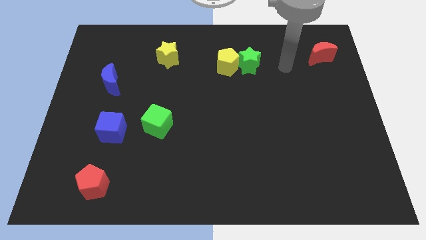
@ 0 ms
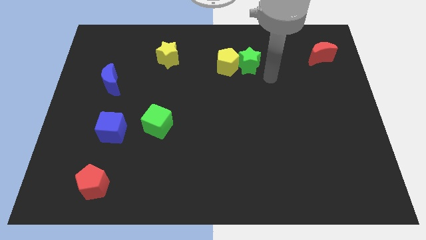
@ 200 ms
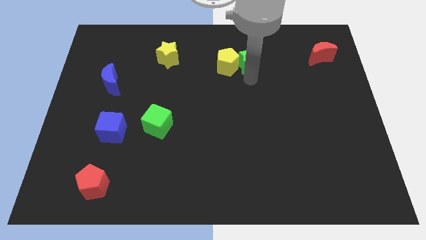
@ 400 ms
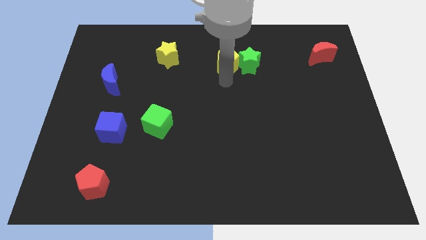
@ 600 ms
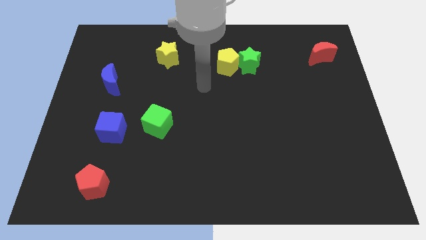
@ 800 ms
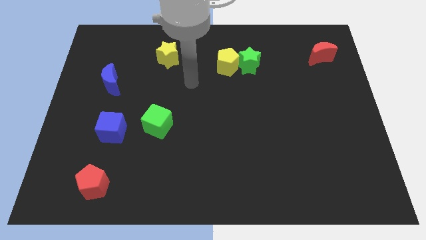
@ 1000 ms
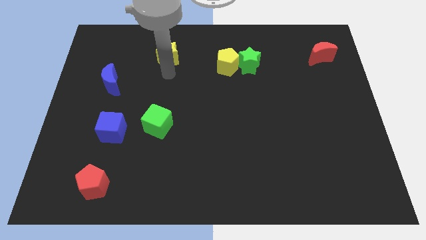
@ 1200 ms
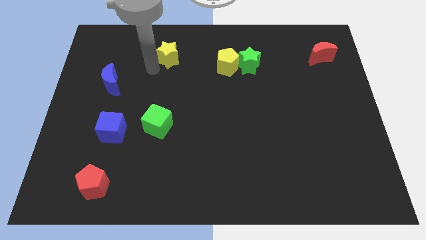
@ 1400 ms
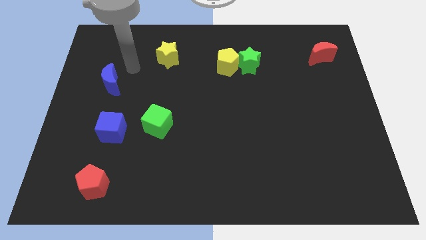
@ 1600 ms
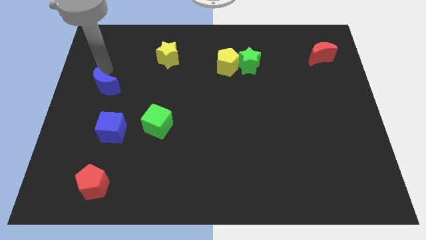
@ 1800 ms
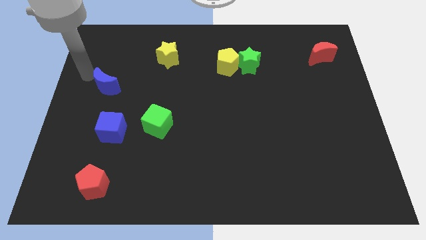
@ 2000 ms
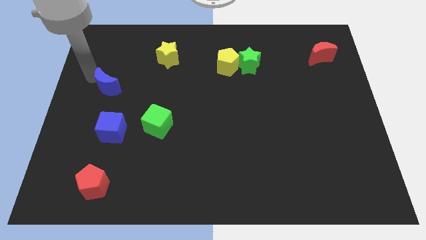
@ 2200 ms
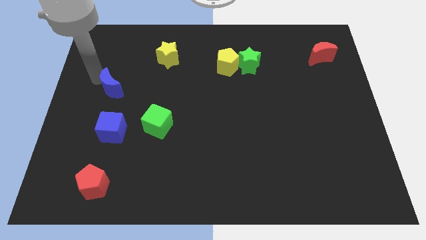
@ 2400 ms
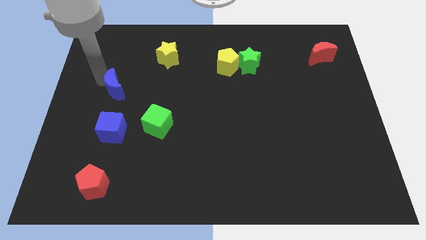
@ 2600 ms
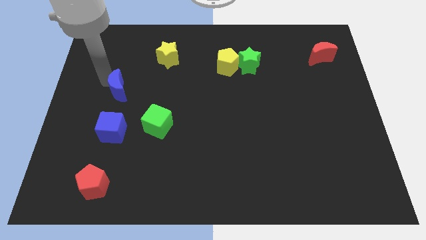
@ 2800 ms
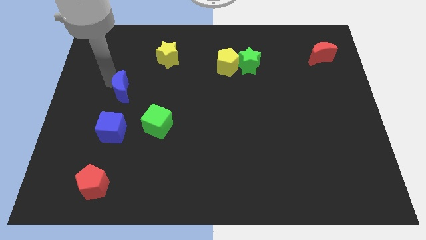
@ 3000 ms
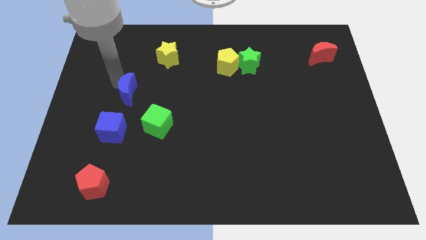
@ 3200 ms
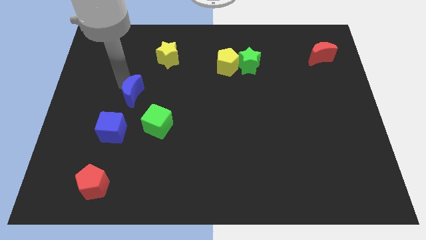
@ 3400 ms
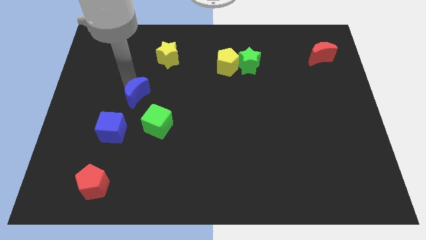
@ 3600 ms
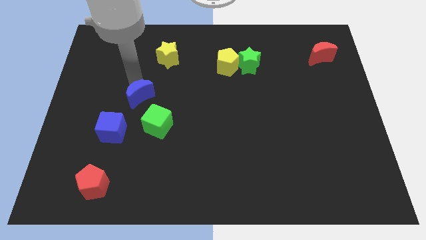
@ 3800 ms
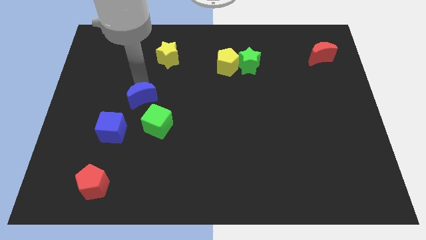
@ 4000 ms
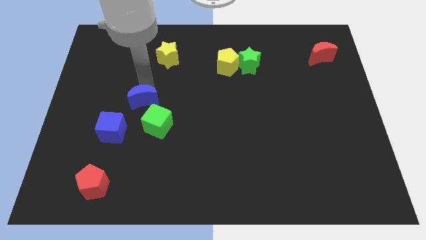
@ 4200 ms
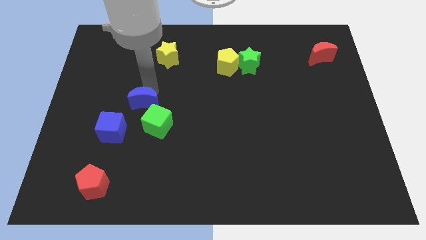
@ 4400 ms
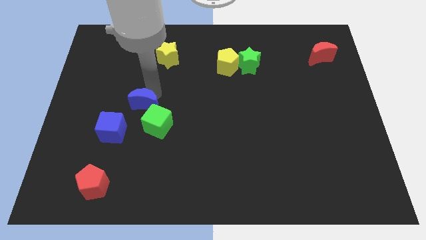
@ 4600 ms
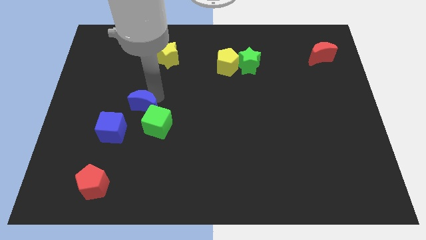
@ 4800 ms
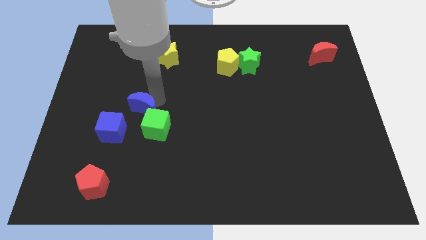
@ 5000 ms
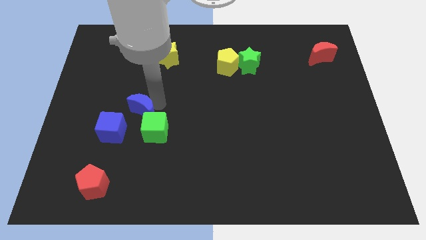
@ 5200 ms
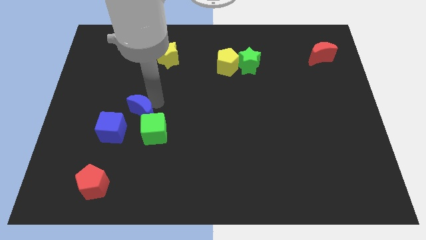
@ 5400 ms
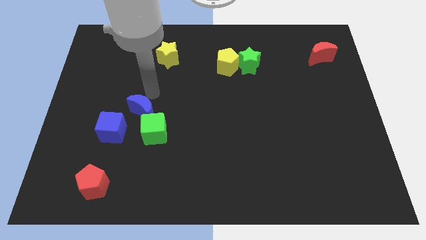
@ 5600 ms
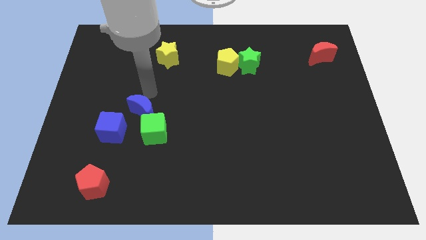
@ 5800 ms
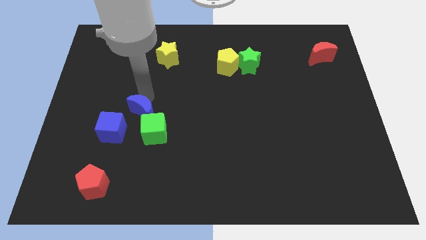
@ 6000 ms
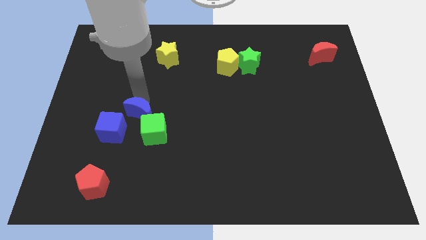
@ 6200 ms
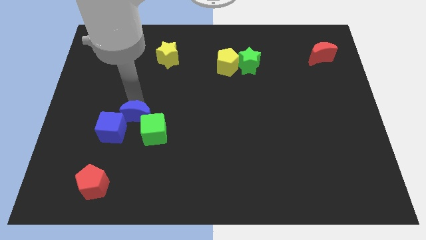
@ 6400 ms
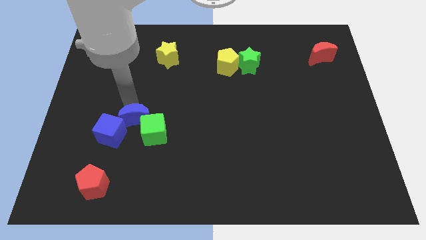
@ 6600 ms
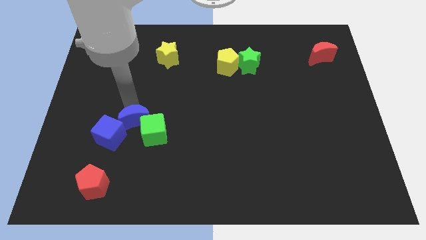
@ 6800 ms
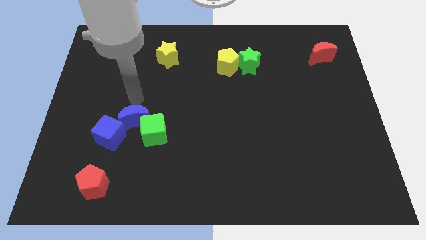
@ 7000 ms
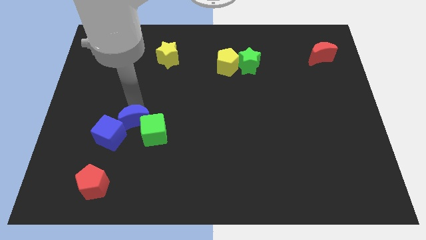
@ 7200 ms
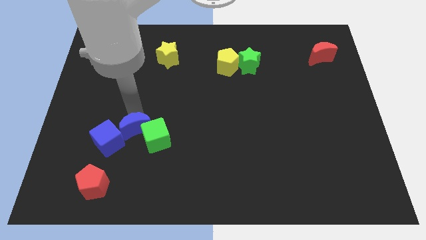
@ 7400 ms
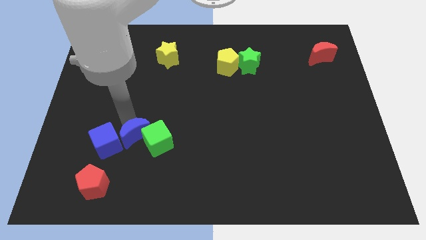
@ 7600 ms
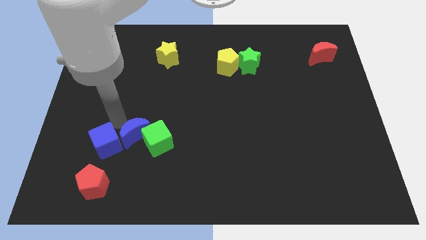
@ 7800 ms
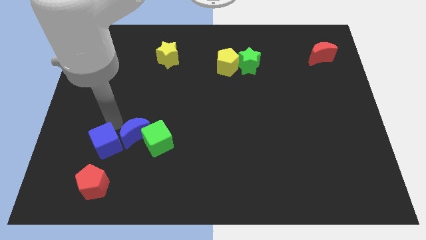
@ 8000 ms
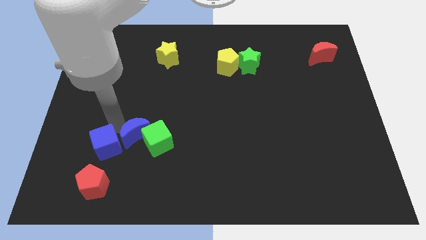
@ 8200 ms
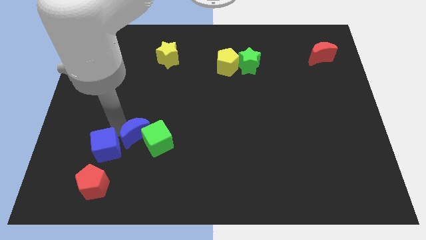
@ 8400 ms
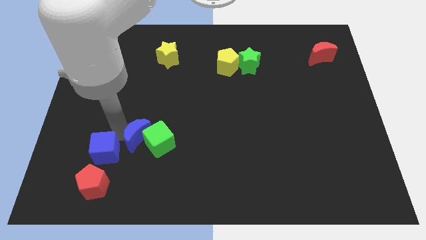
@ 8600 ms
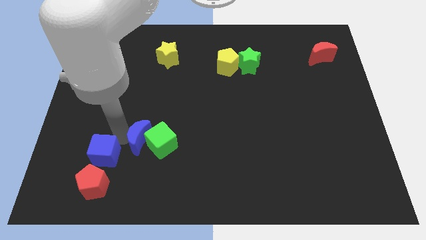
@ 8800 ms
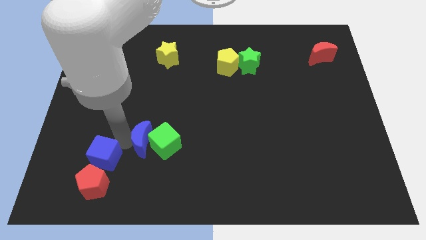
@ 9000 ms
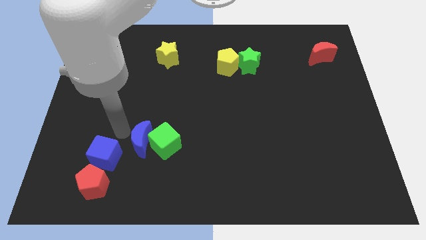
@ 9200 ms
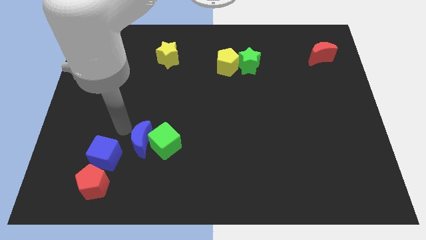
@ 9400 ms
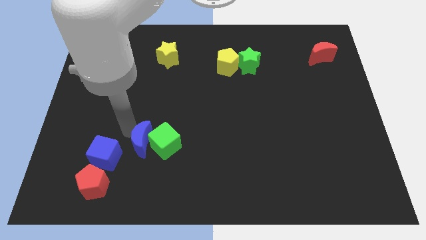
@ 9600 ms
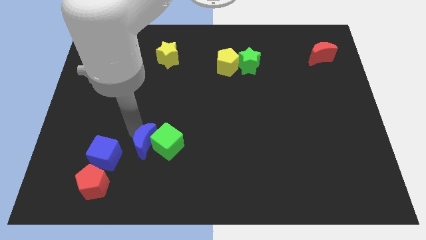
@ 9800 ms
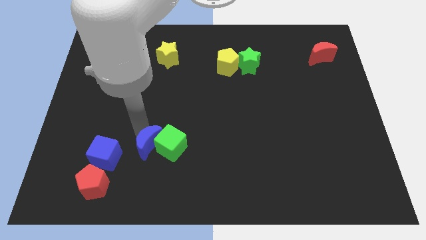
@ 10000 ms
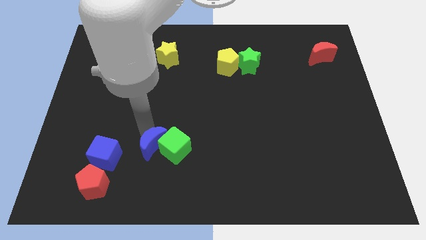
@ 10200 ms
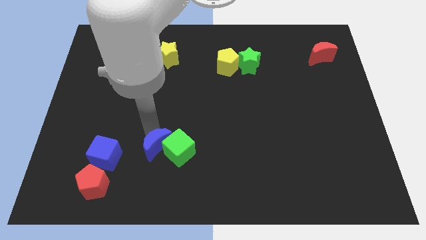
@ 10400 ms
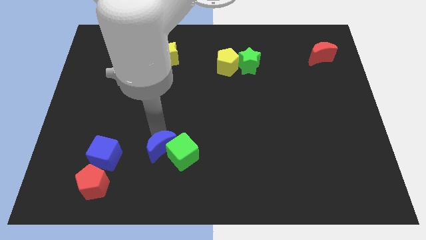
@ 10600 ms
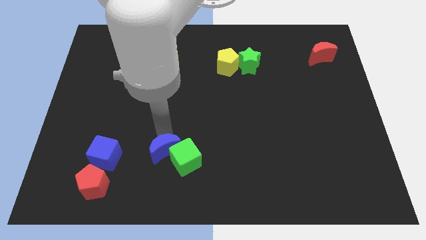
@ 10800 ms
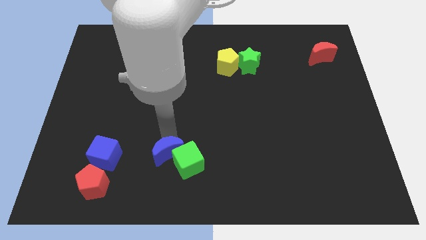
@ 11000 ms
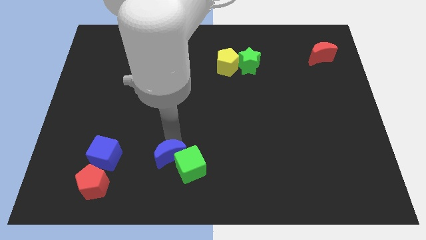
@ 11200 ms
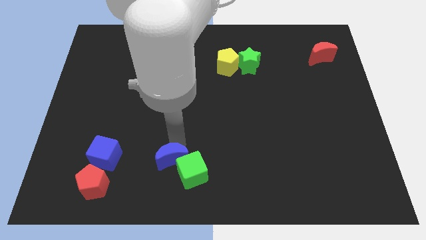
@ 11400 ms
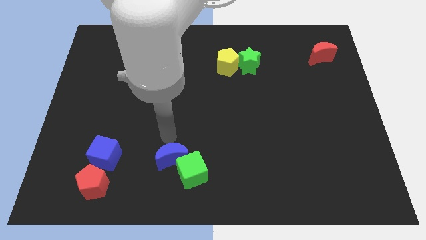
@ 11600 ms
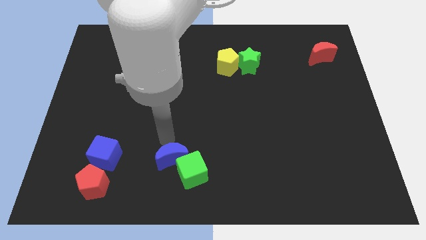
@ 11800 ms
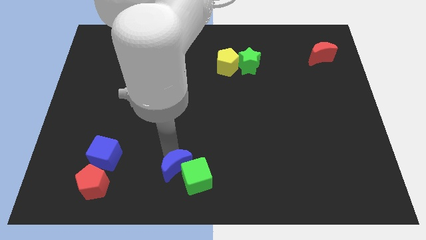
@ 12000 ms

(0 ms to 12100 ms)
slide the blue moon to the bottom

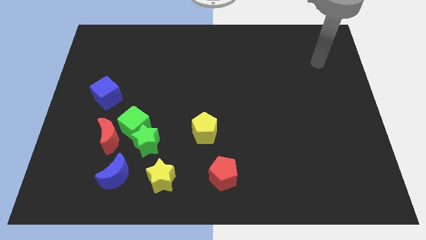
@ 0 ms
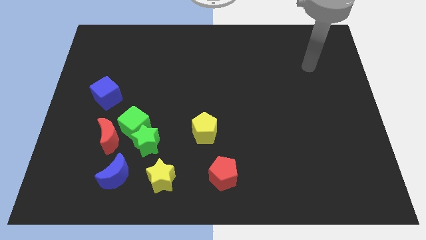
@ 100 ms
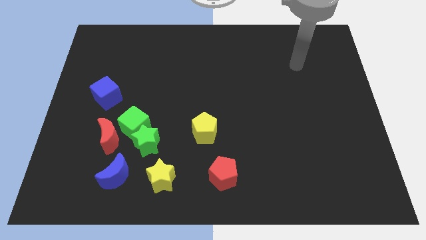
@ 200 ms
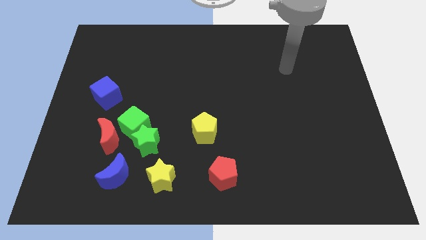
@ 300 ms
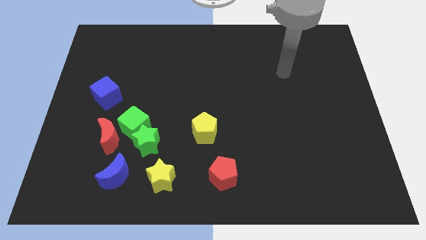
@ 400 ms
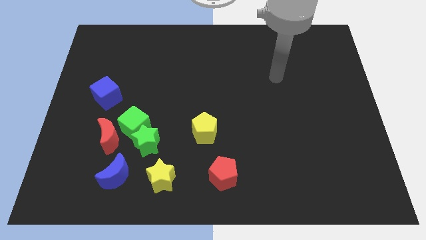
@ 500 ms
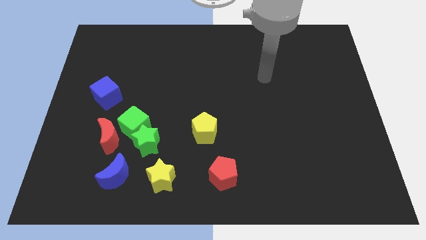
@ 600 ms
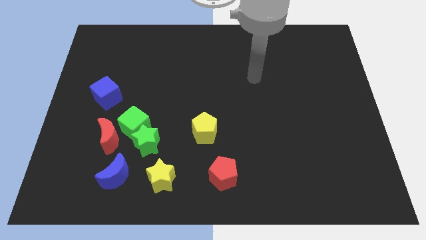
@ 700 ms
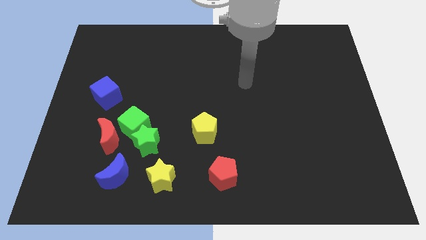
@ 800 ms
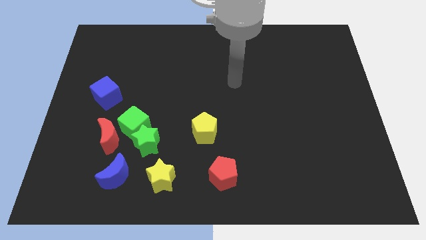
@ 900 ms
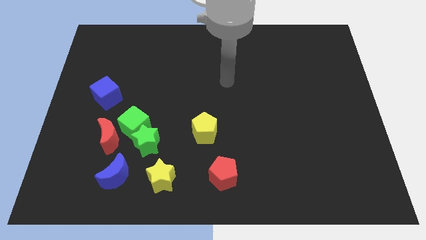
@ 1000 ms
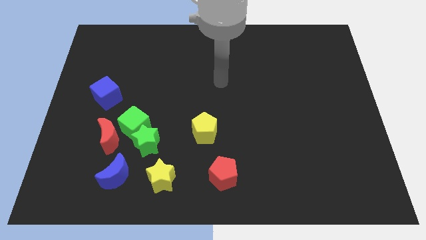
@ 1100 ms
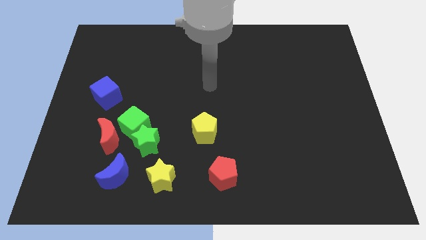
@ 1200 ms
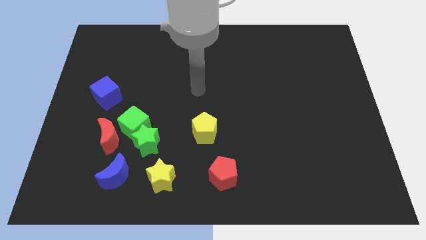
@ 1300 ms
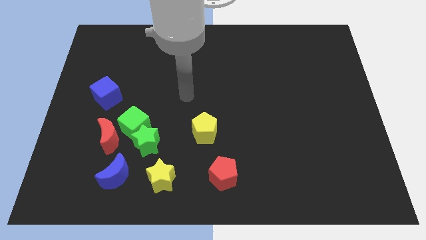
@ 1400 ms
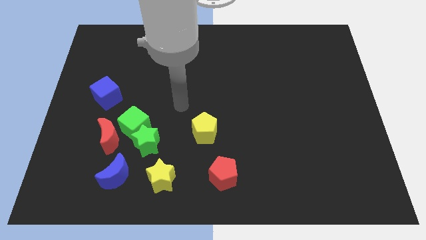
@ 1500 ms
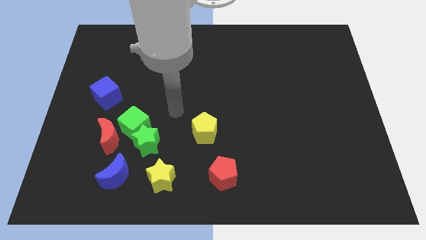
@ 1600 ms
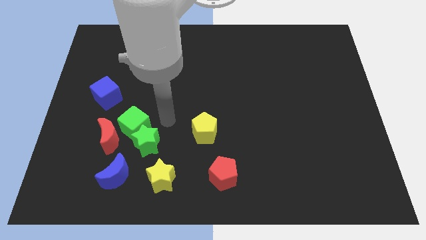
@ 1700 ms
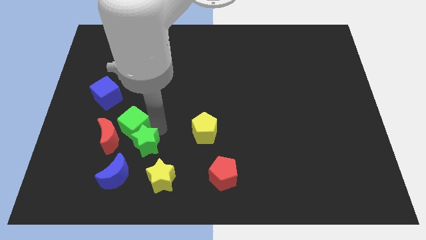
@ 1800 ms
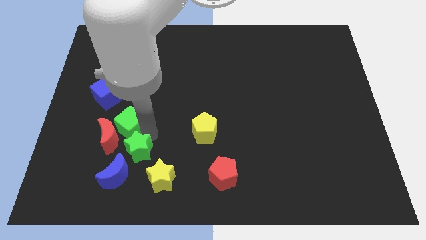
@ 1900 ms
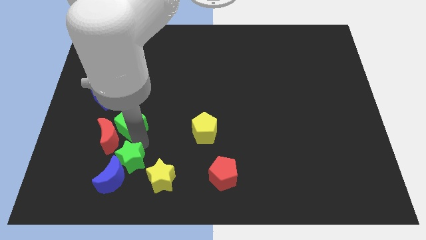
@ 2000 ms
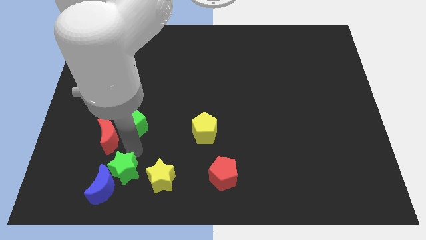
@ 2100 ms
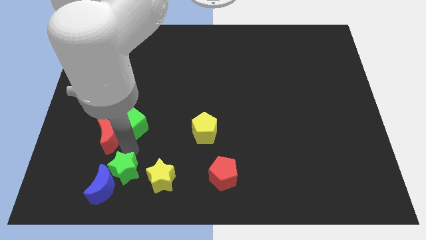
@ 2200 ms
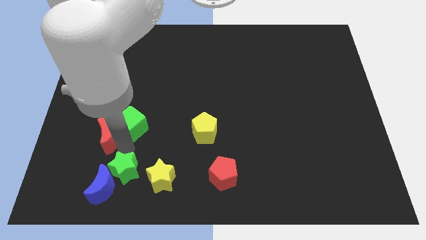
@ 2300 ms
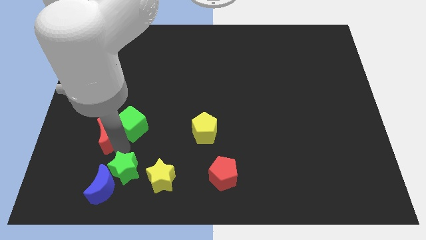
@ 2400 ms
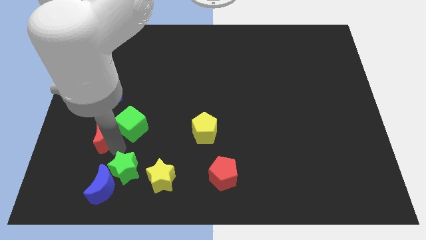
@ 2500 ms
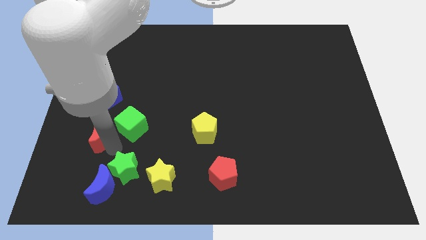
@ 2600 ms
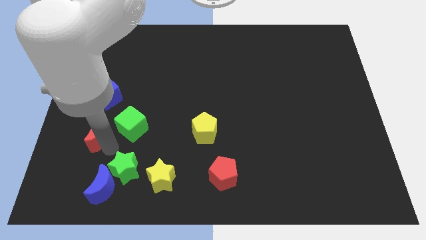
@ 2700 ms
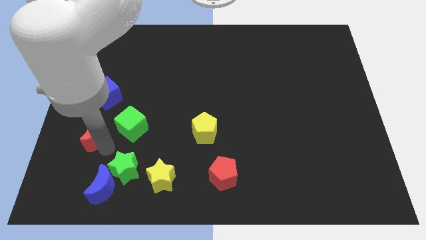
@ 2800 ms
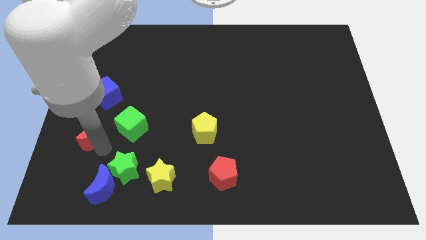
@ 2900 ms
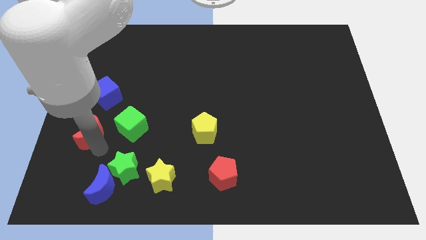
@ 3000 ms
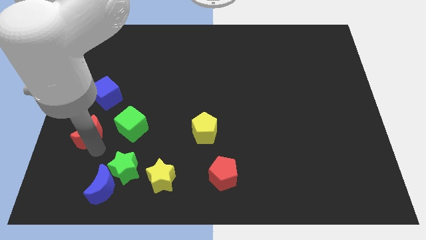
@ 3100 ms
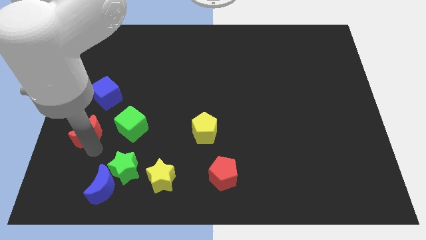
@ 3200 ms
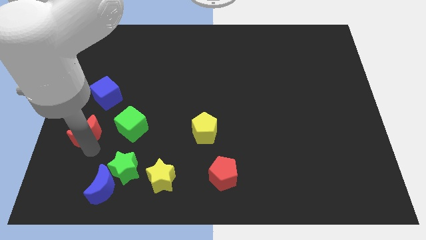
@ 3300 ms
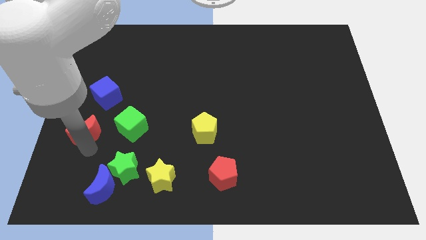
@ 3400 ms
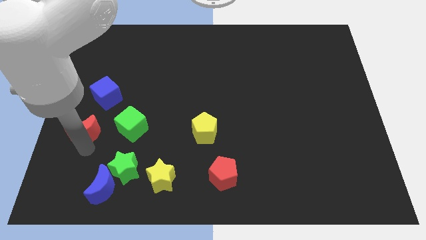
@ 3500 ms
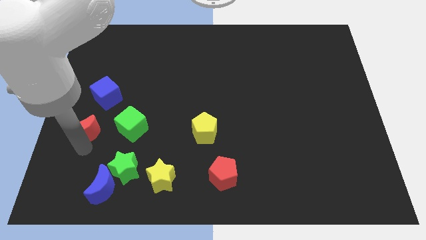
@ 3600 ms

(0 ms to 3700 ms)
slide the red moon to the left side
